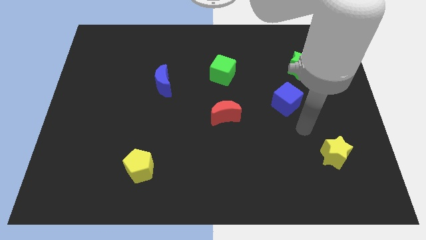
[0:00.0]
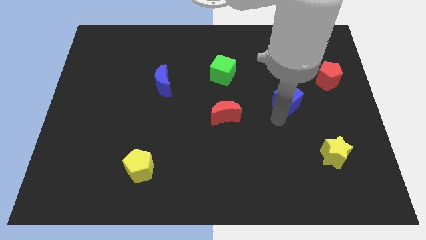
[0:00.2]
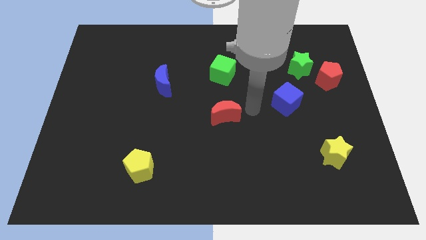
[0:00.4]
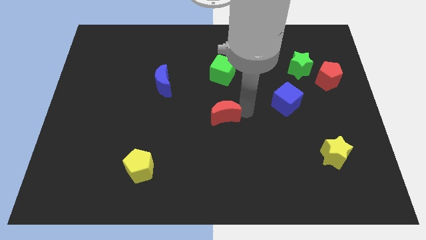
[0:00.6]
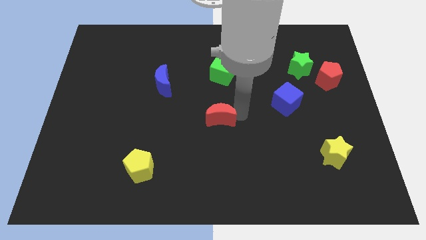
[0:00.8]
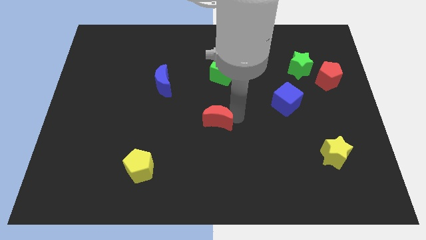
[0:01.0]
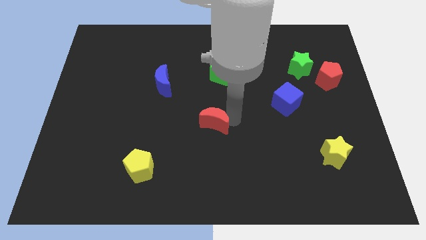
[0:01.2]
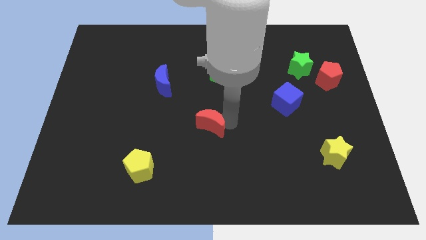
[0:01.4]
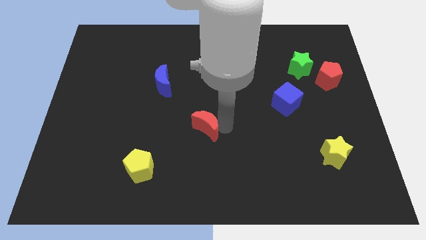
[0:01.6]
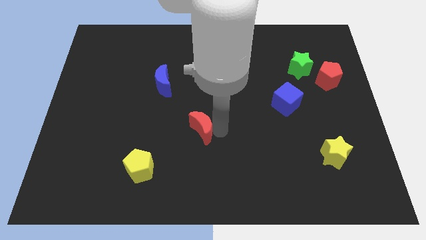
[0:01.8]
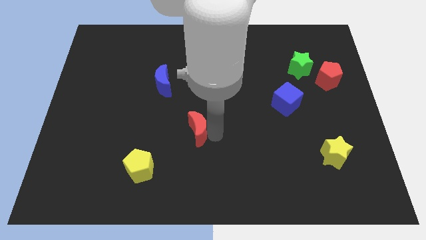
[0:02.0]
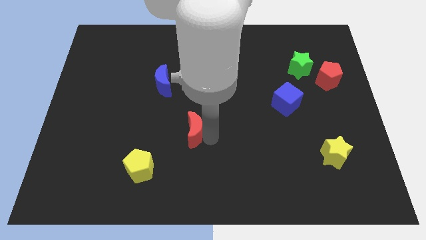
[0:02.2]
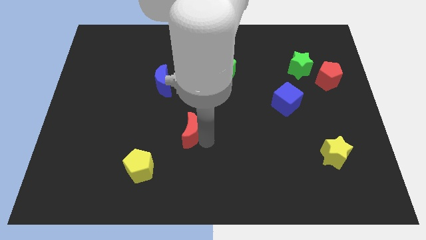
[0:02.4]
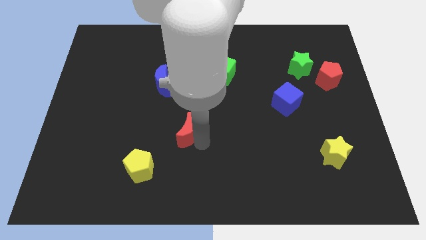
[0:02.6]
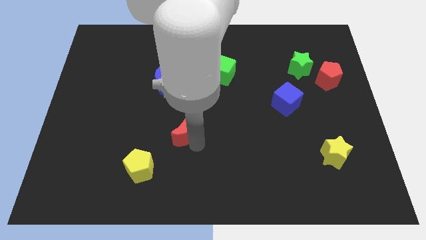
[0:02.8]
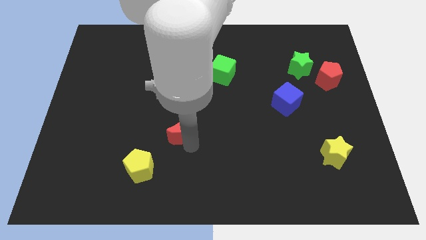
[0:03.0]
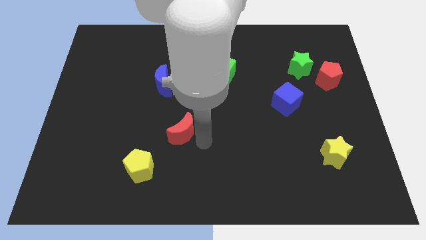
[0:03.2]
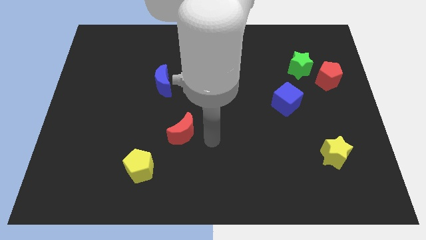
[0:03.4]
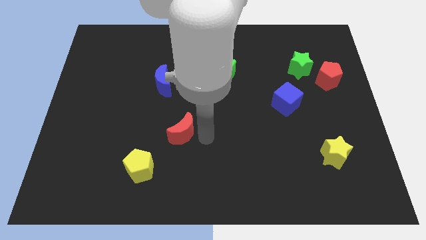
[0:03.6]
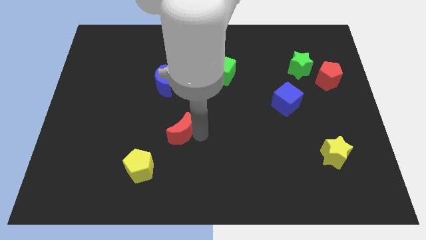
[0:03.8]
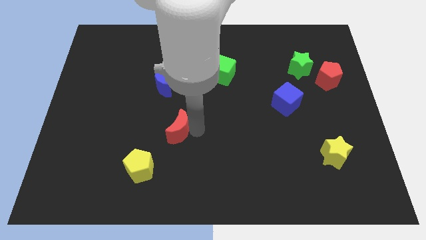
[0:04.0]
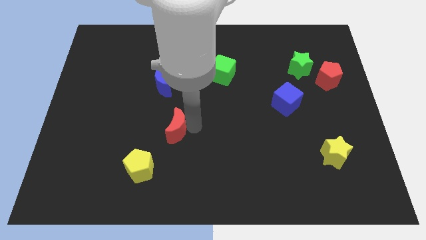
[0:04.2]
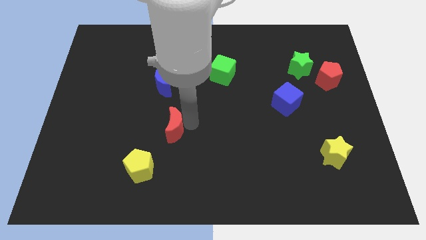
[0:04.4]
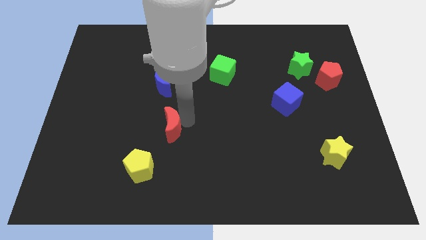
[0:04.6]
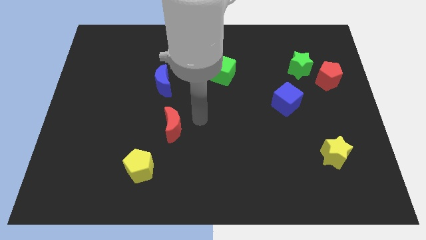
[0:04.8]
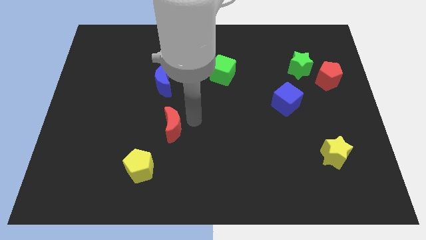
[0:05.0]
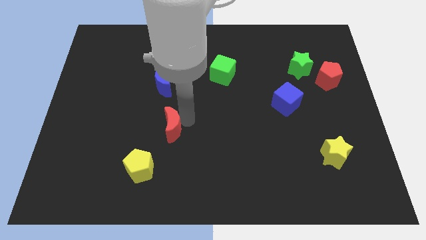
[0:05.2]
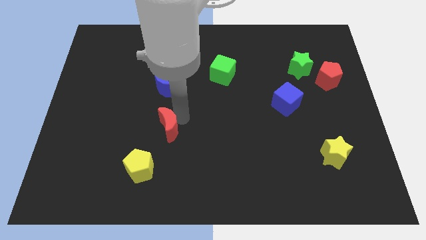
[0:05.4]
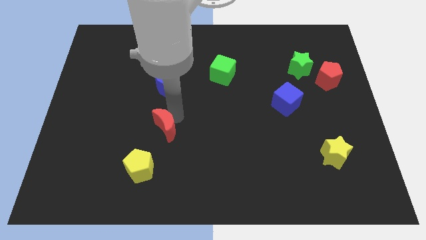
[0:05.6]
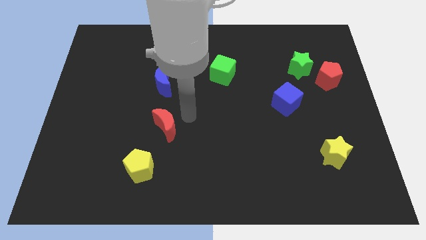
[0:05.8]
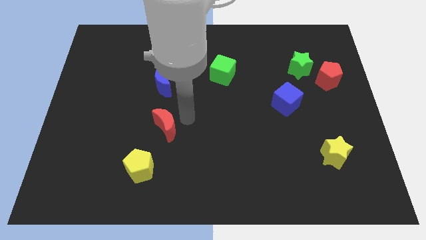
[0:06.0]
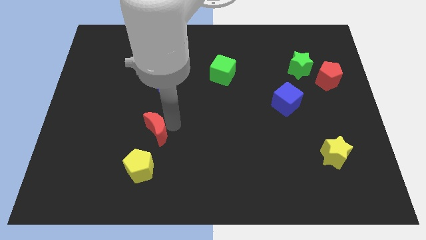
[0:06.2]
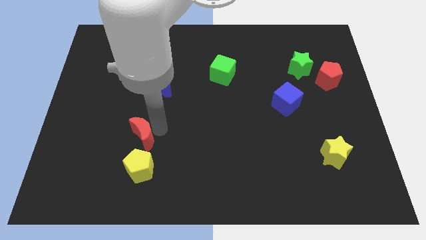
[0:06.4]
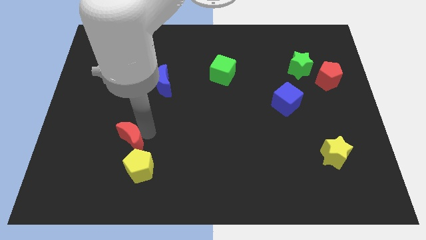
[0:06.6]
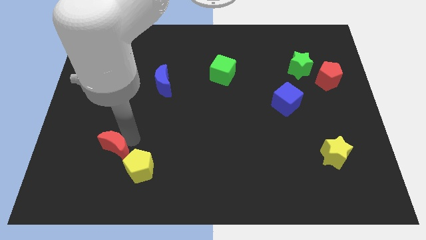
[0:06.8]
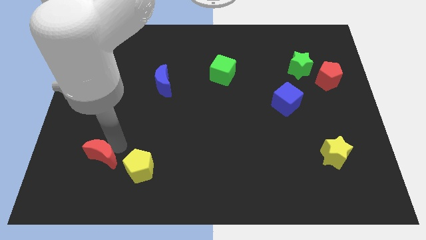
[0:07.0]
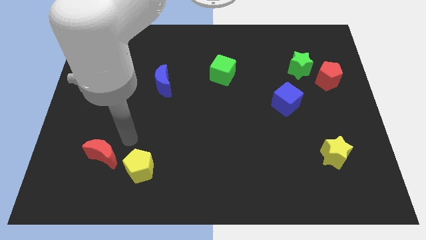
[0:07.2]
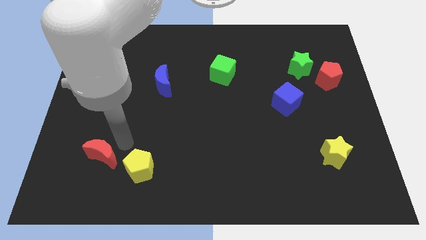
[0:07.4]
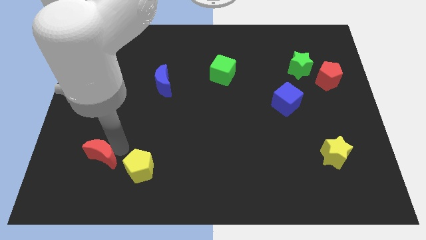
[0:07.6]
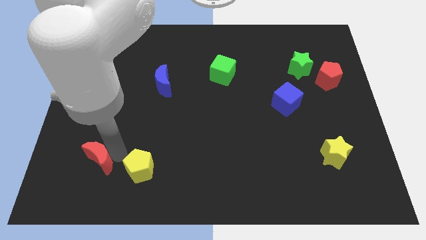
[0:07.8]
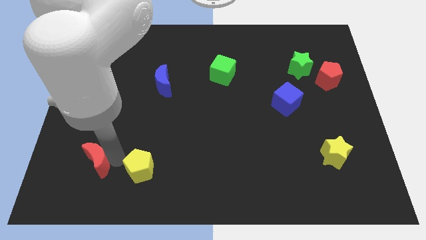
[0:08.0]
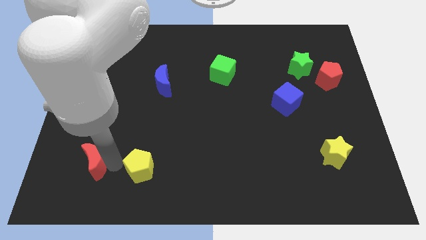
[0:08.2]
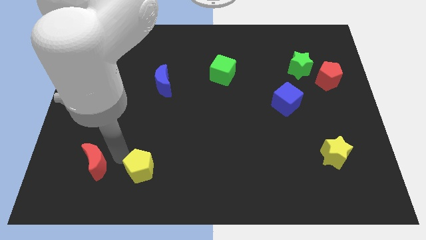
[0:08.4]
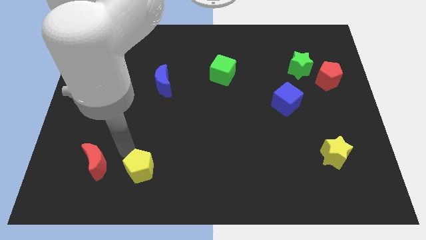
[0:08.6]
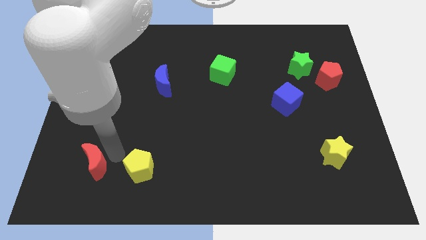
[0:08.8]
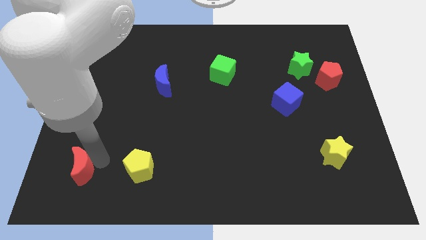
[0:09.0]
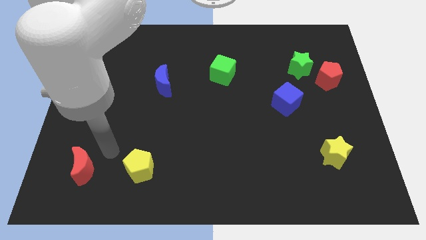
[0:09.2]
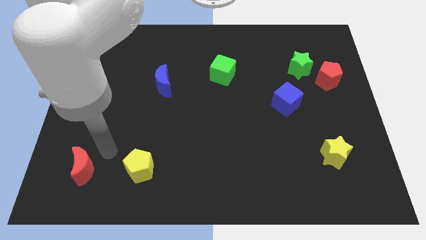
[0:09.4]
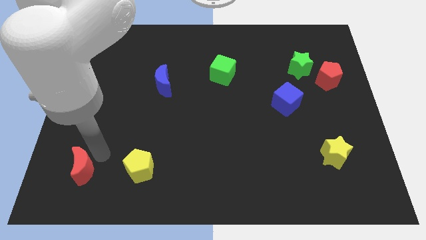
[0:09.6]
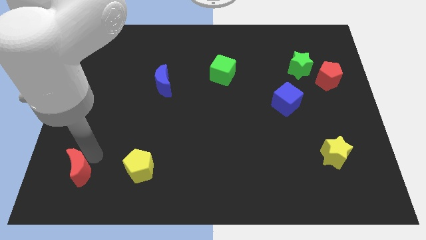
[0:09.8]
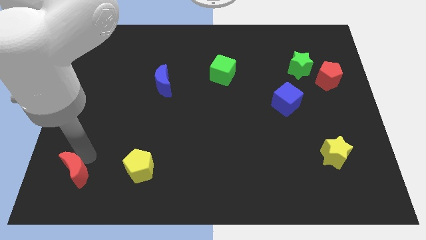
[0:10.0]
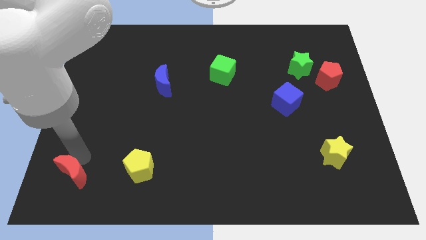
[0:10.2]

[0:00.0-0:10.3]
slide the red moon to the lower left corner

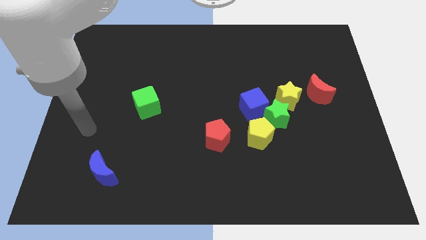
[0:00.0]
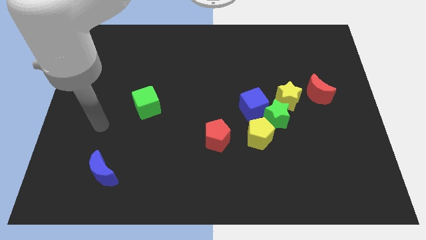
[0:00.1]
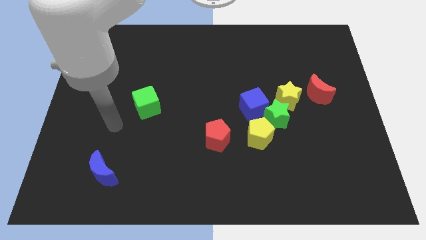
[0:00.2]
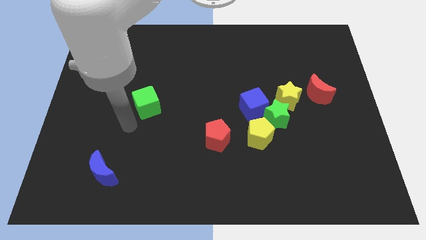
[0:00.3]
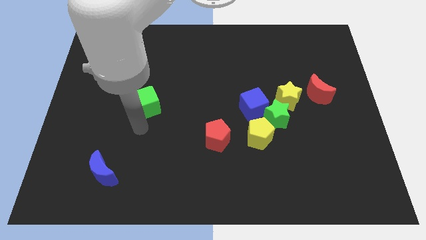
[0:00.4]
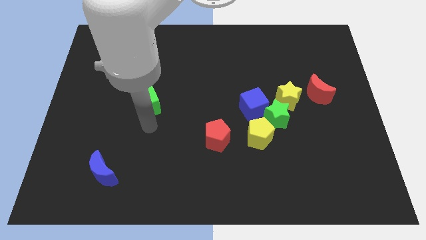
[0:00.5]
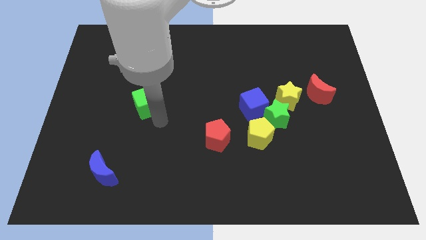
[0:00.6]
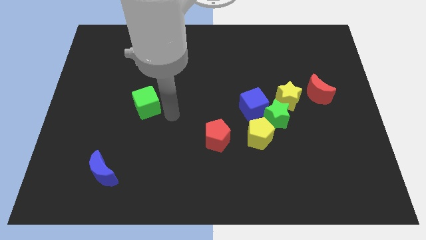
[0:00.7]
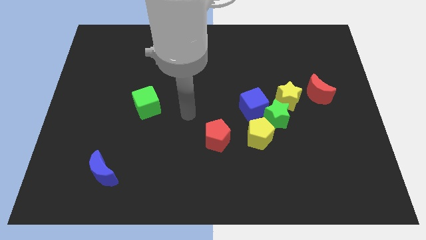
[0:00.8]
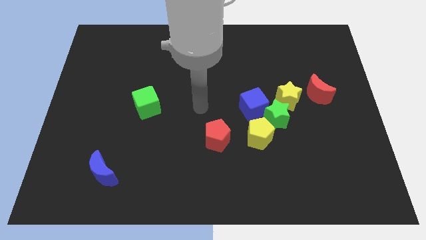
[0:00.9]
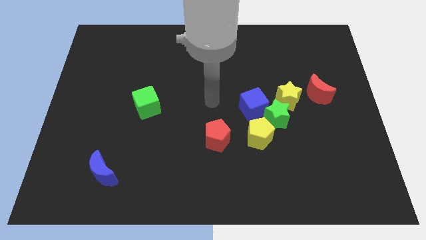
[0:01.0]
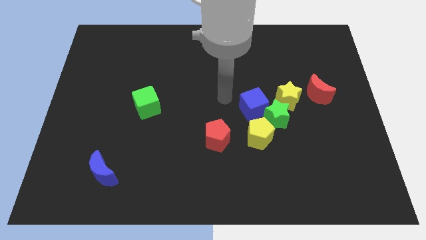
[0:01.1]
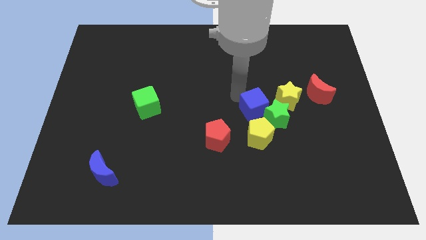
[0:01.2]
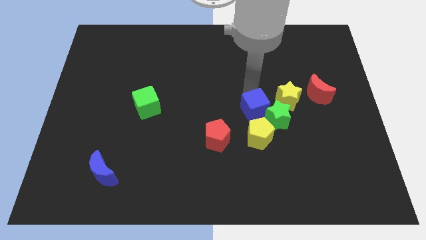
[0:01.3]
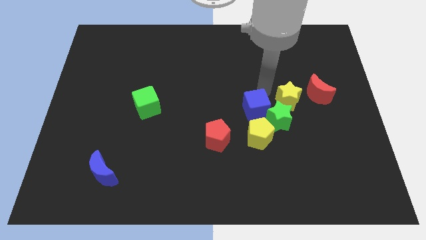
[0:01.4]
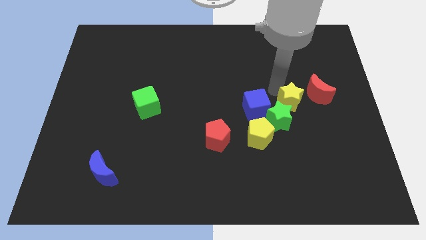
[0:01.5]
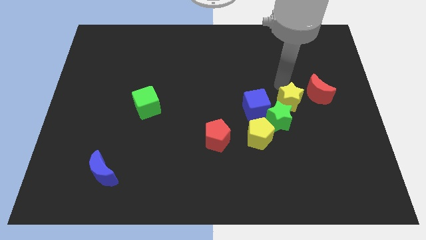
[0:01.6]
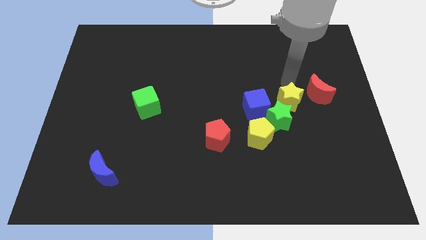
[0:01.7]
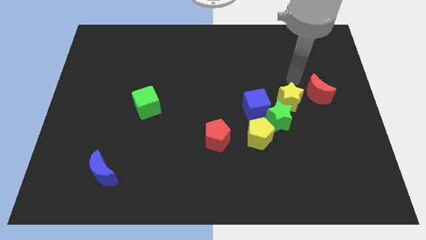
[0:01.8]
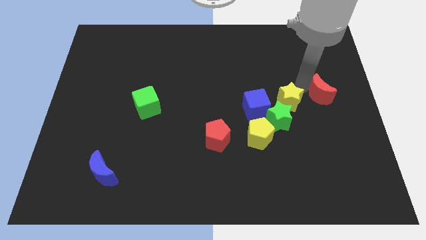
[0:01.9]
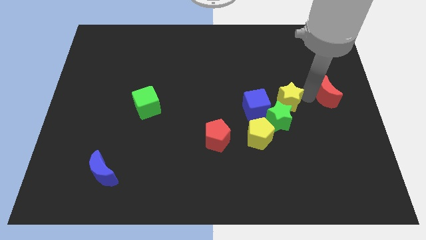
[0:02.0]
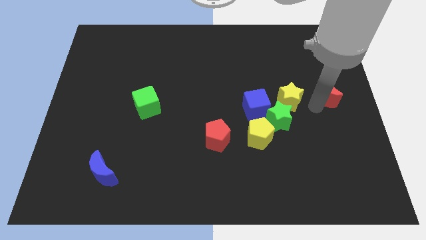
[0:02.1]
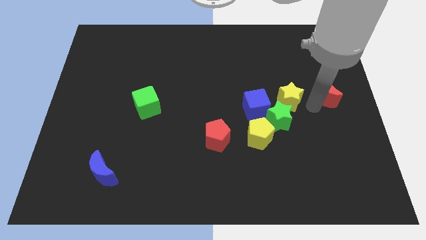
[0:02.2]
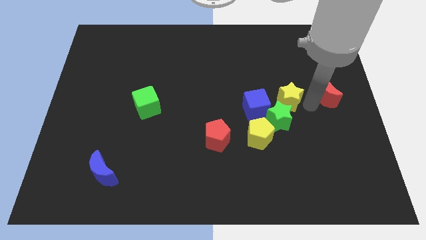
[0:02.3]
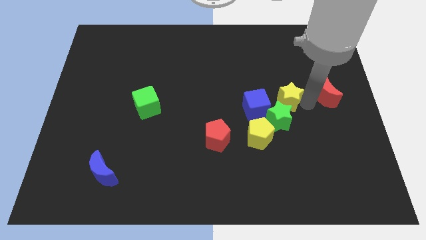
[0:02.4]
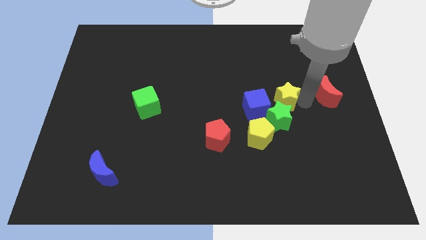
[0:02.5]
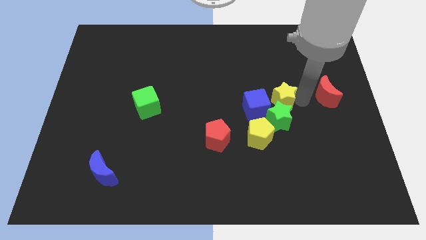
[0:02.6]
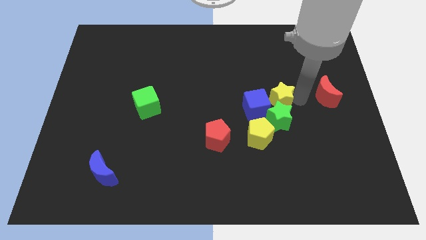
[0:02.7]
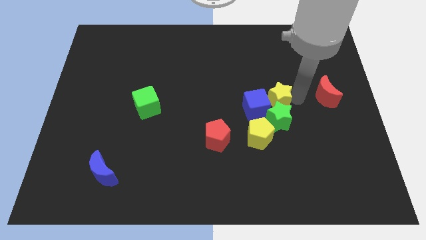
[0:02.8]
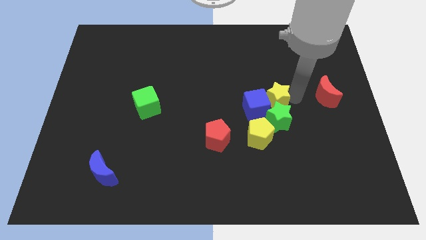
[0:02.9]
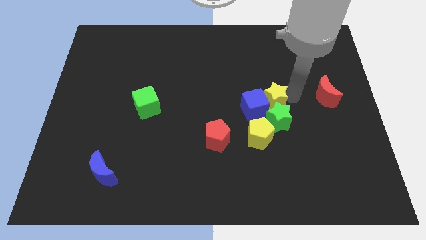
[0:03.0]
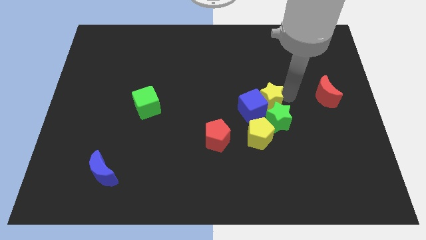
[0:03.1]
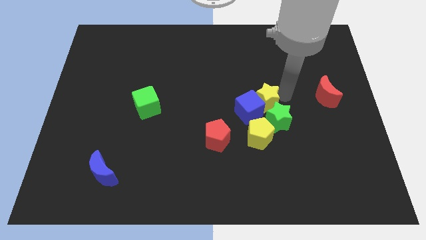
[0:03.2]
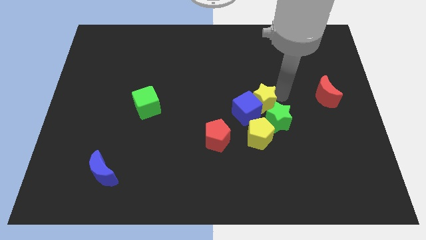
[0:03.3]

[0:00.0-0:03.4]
put the yellow star to the middle of the board
